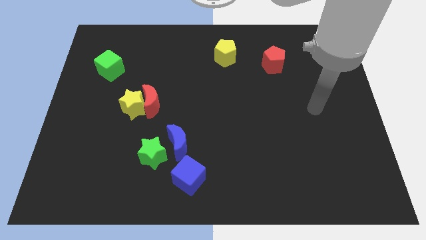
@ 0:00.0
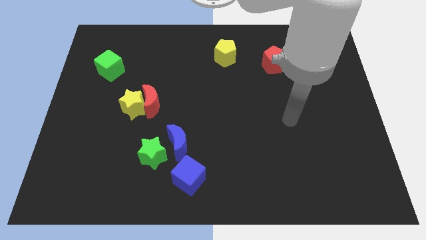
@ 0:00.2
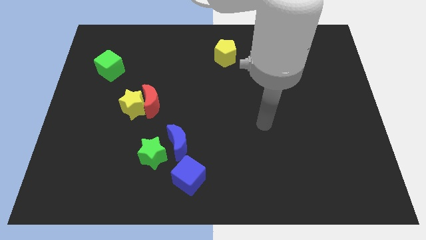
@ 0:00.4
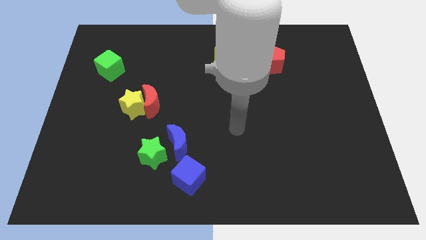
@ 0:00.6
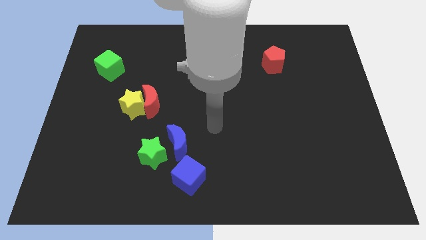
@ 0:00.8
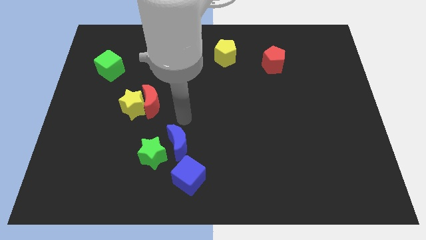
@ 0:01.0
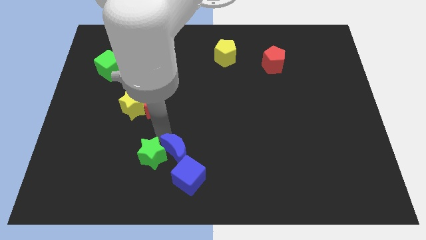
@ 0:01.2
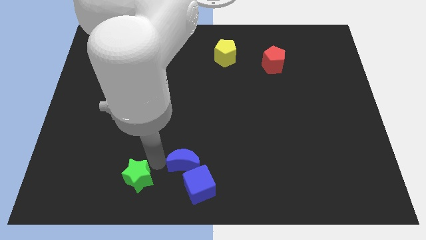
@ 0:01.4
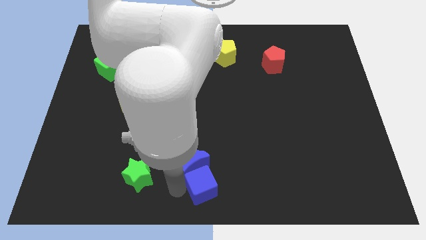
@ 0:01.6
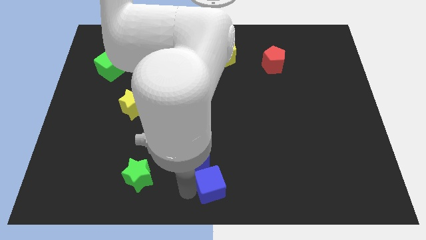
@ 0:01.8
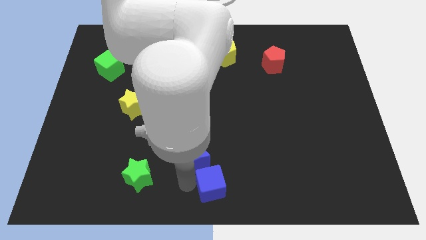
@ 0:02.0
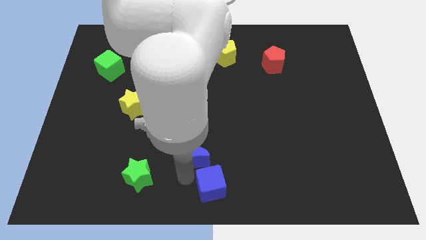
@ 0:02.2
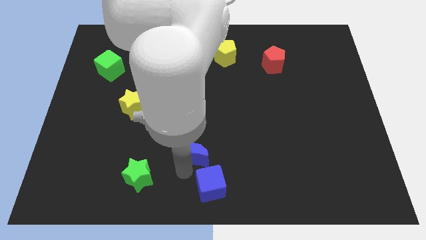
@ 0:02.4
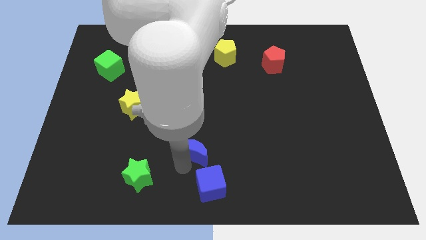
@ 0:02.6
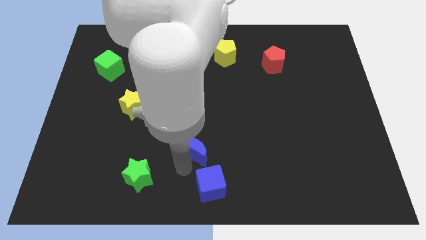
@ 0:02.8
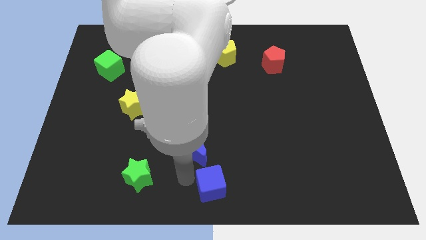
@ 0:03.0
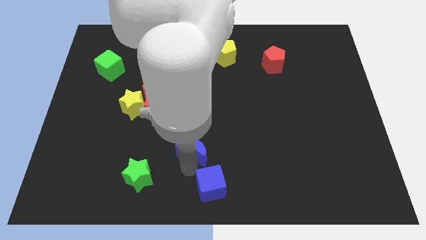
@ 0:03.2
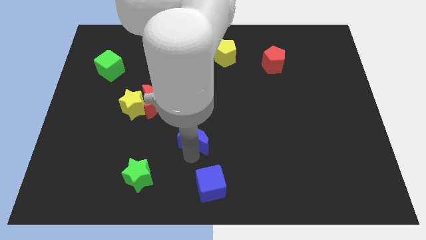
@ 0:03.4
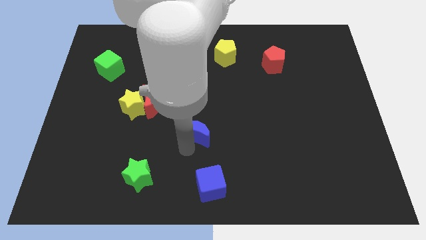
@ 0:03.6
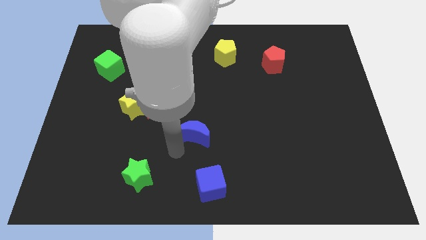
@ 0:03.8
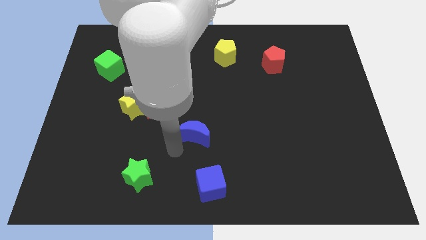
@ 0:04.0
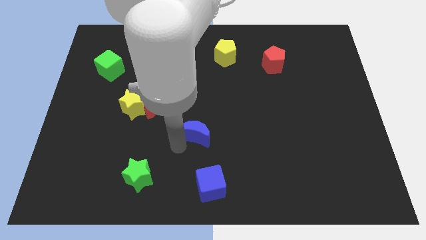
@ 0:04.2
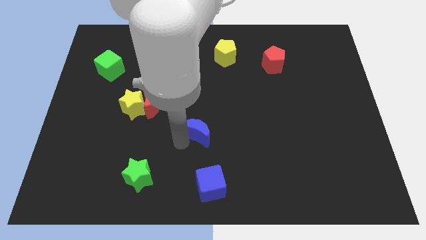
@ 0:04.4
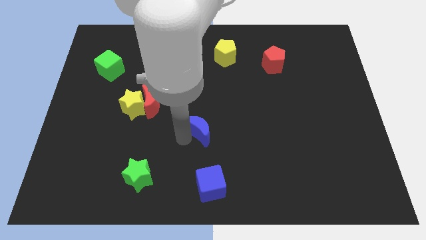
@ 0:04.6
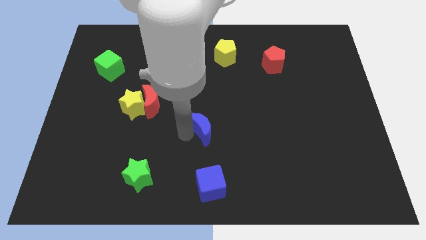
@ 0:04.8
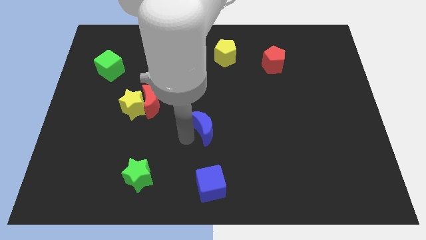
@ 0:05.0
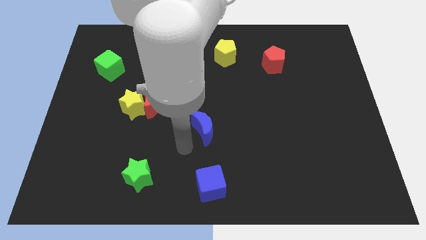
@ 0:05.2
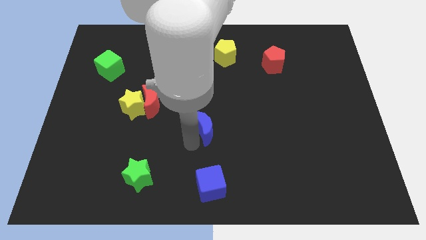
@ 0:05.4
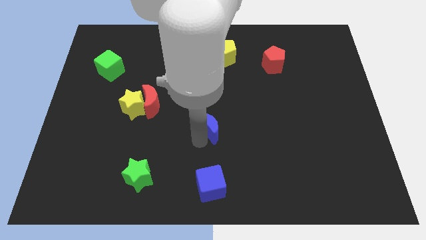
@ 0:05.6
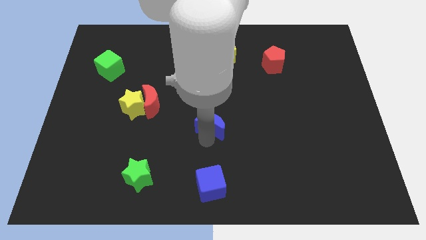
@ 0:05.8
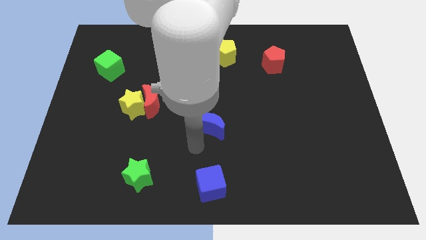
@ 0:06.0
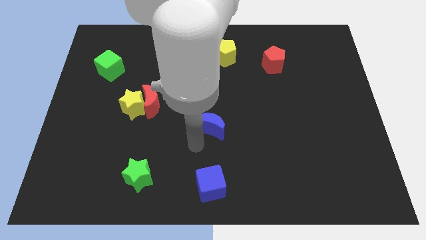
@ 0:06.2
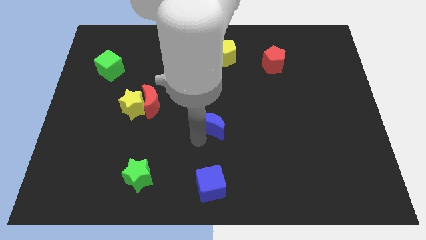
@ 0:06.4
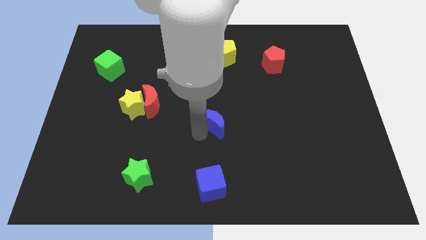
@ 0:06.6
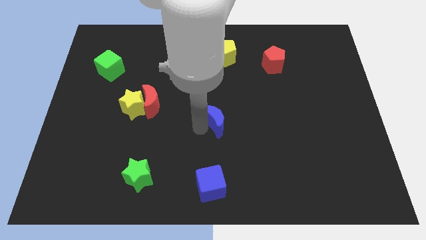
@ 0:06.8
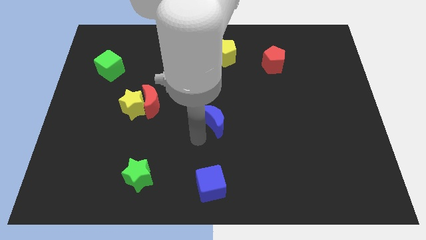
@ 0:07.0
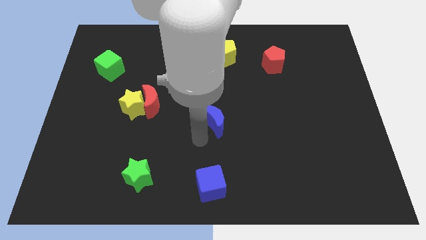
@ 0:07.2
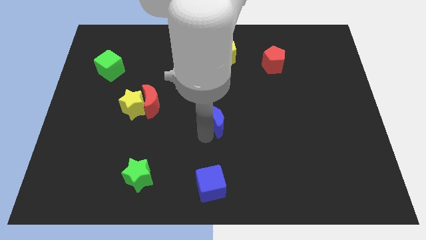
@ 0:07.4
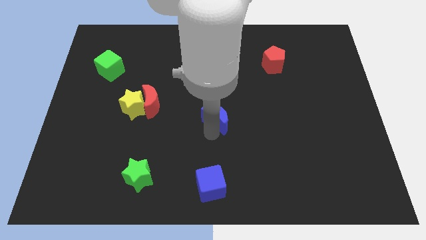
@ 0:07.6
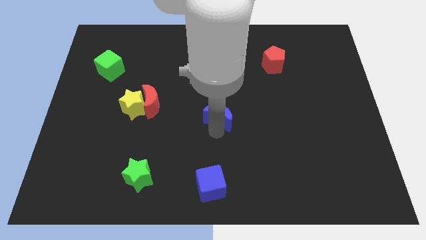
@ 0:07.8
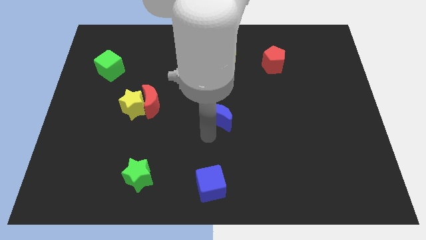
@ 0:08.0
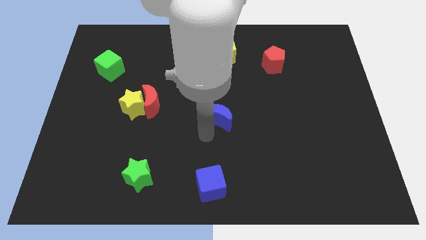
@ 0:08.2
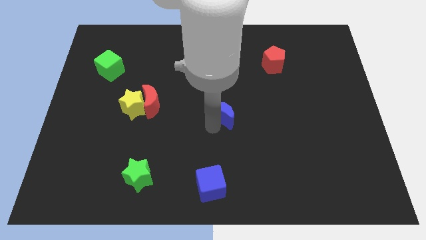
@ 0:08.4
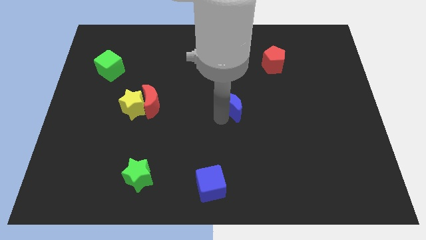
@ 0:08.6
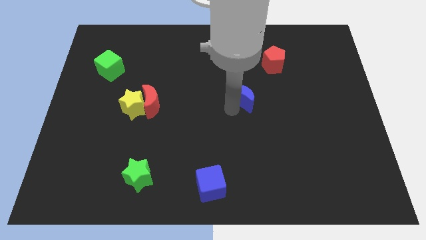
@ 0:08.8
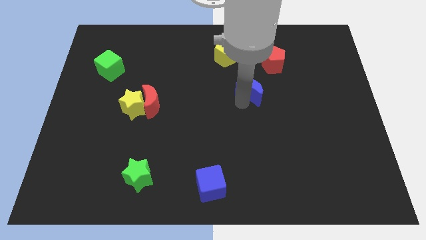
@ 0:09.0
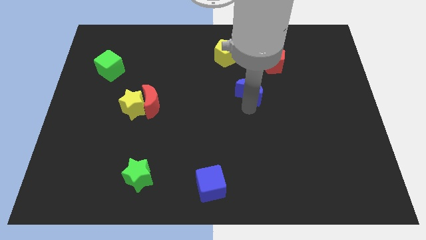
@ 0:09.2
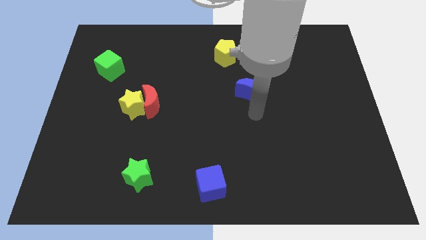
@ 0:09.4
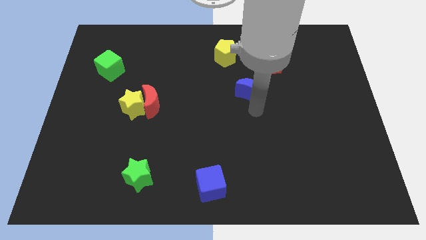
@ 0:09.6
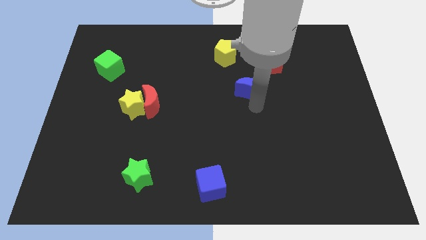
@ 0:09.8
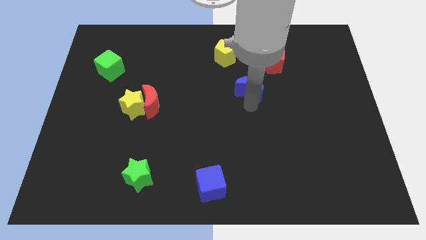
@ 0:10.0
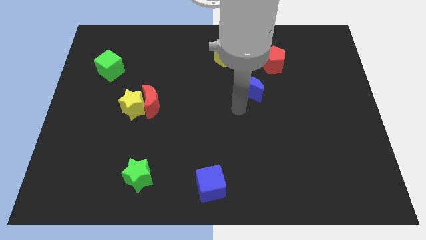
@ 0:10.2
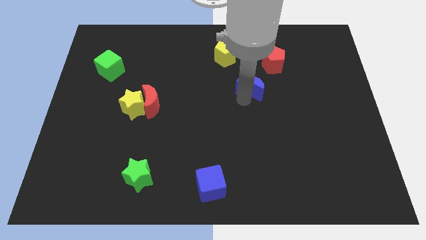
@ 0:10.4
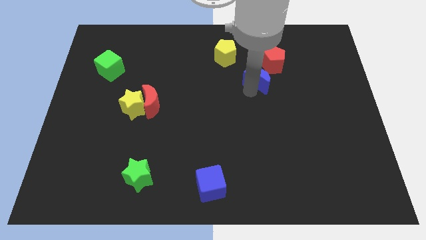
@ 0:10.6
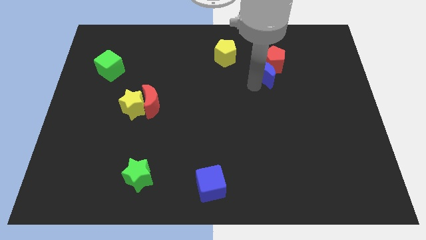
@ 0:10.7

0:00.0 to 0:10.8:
put the blue moon to the red pentagon

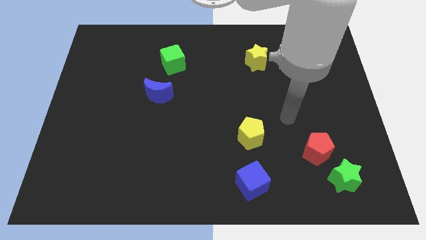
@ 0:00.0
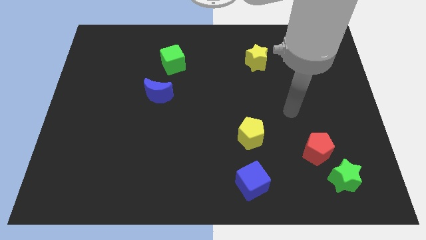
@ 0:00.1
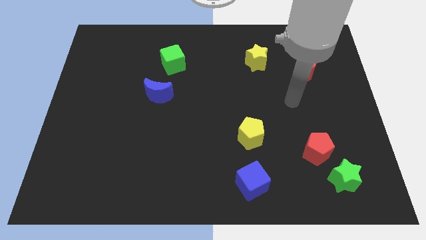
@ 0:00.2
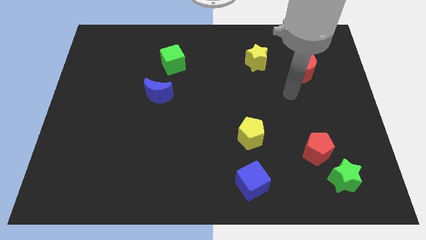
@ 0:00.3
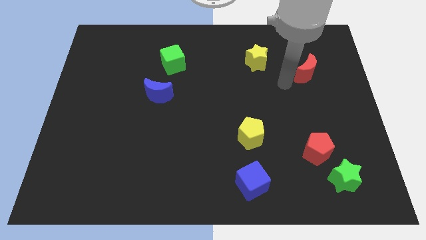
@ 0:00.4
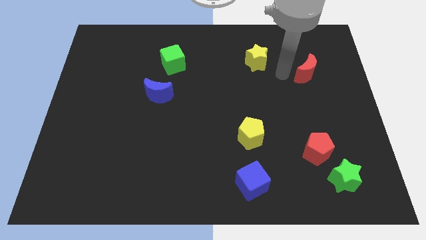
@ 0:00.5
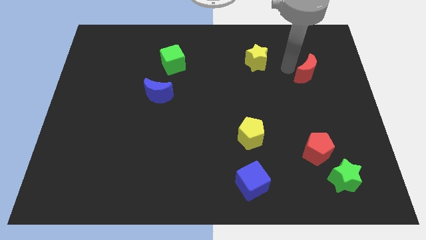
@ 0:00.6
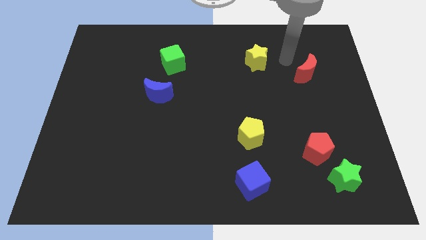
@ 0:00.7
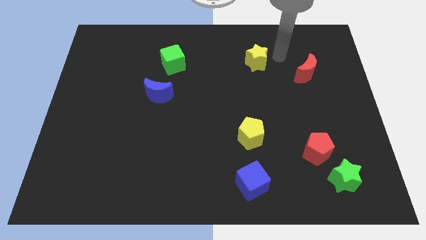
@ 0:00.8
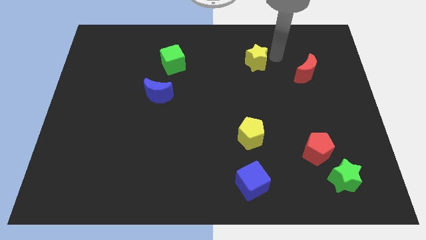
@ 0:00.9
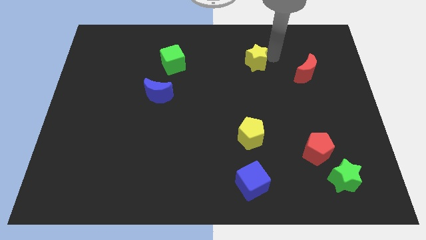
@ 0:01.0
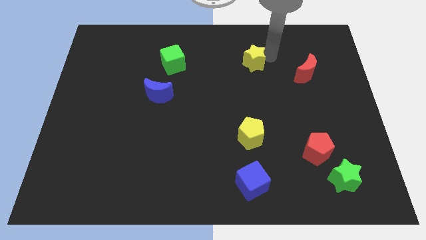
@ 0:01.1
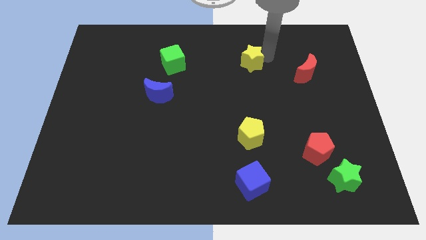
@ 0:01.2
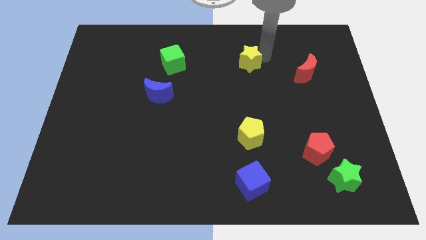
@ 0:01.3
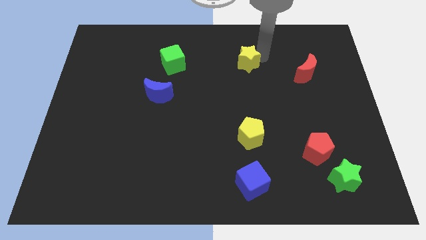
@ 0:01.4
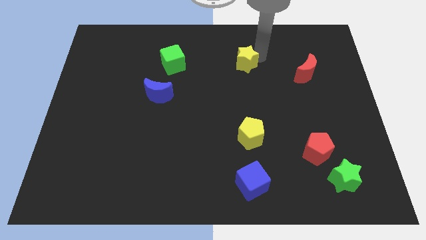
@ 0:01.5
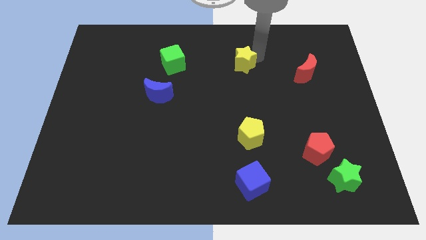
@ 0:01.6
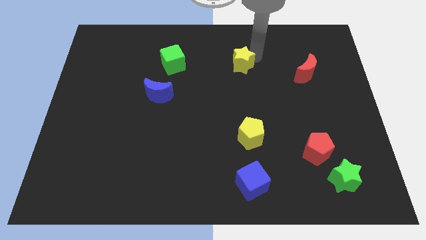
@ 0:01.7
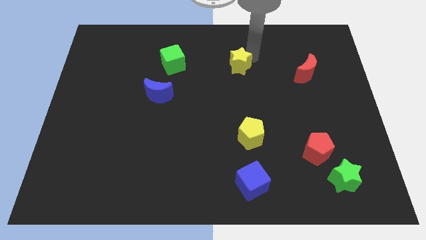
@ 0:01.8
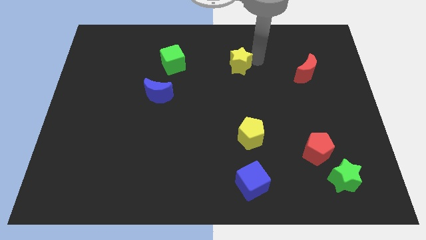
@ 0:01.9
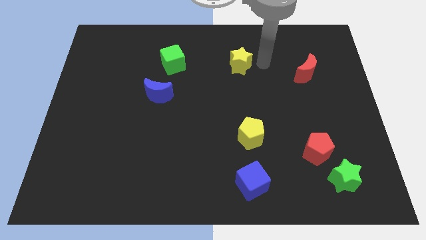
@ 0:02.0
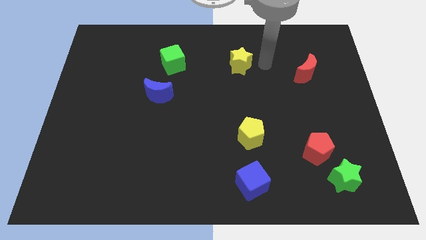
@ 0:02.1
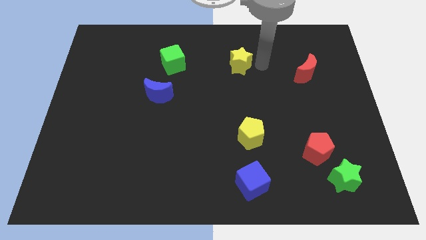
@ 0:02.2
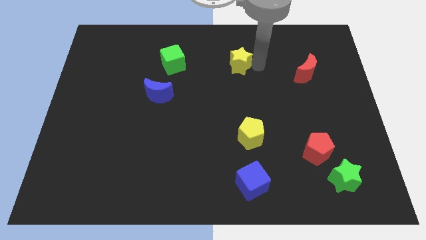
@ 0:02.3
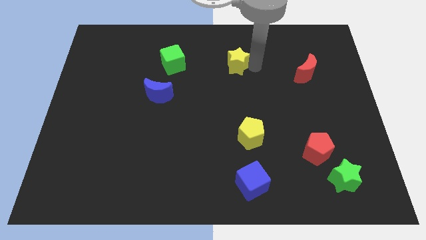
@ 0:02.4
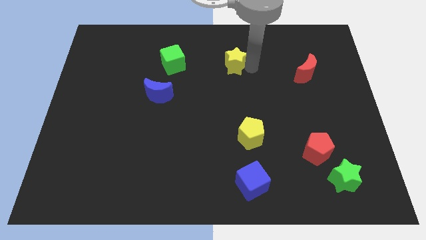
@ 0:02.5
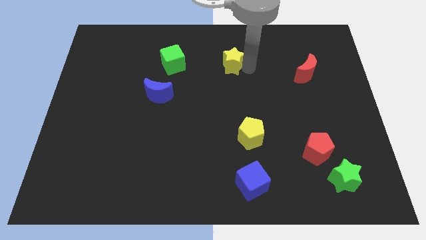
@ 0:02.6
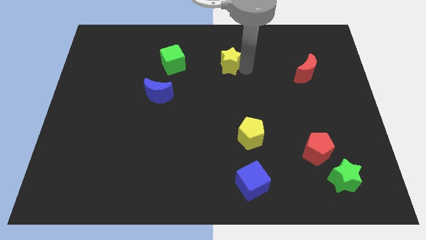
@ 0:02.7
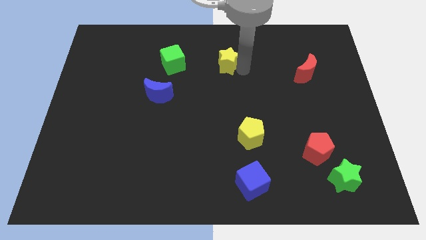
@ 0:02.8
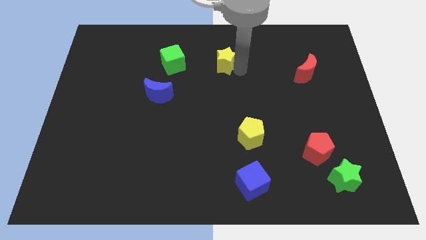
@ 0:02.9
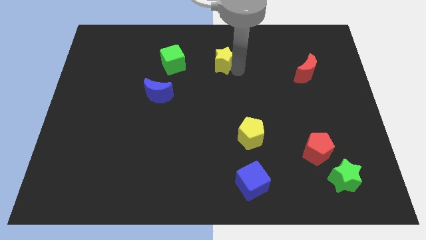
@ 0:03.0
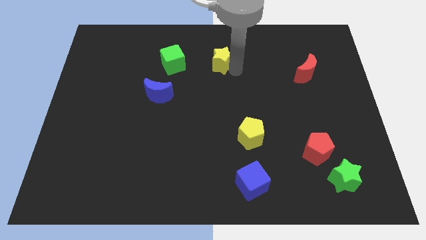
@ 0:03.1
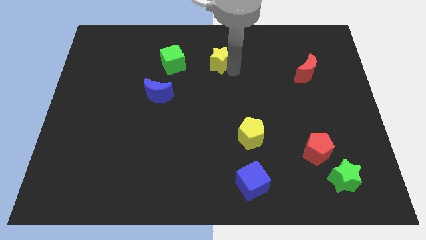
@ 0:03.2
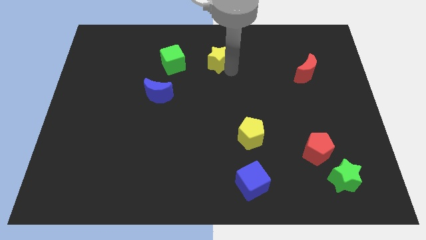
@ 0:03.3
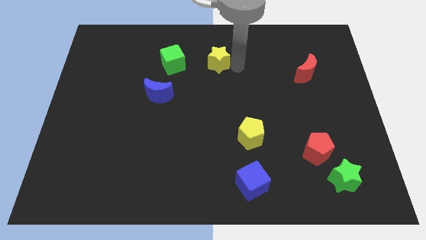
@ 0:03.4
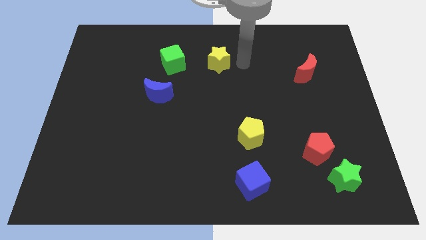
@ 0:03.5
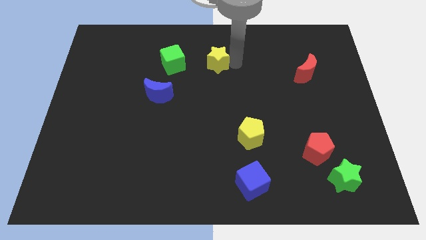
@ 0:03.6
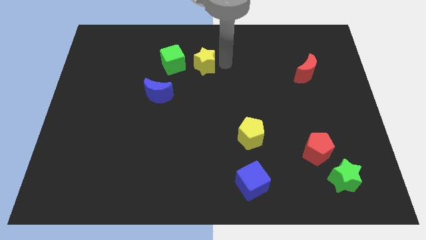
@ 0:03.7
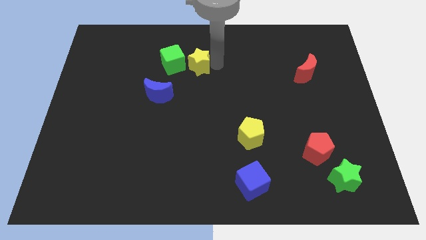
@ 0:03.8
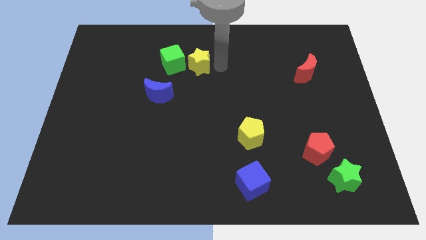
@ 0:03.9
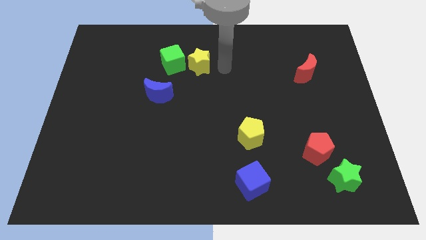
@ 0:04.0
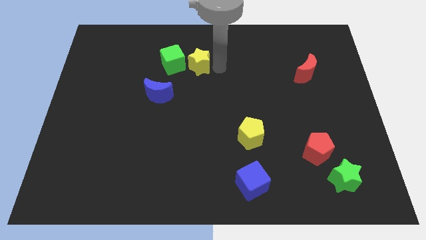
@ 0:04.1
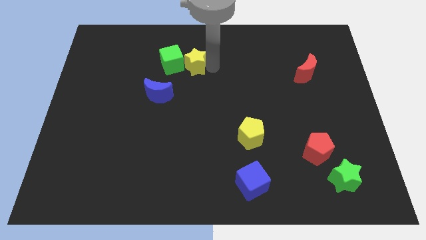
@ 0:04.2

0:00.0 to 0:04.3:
put the yellow star to the green cube
